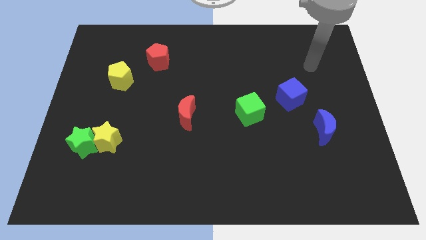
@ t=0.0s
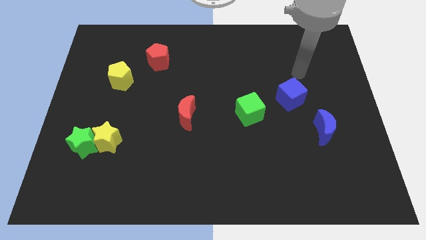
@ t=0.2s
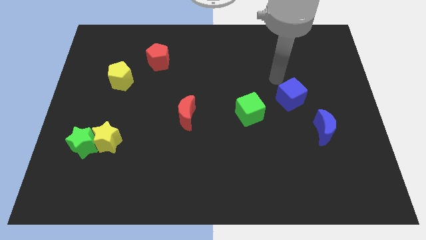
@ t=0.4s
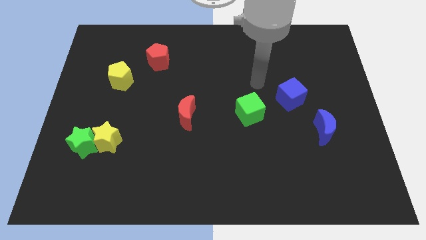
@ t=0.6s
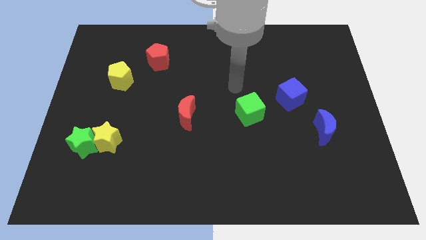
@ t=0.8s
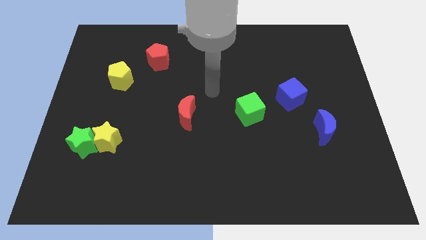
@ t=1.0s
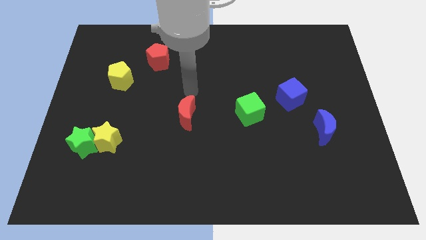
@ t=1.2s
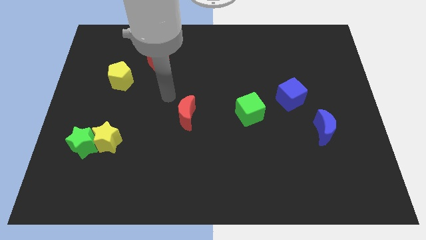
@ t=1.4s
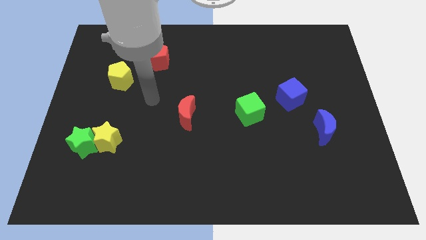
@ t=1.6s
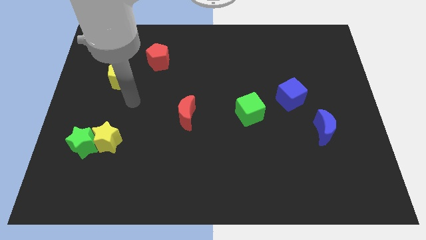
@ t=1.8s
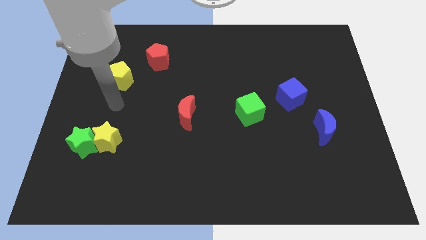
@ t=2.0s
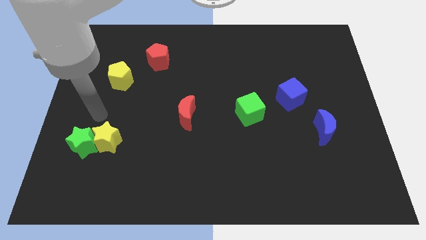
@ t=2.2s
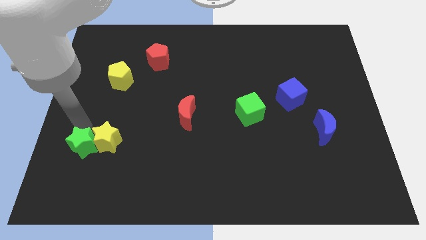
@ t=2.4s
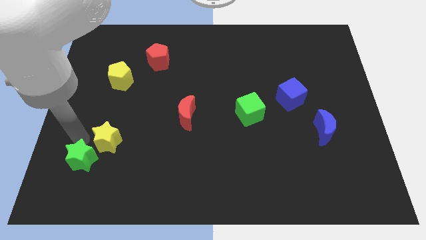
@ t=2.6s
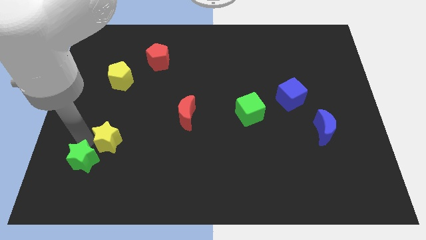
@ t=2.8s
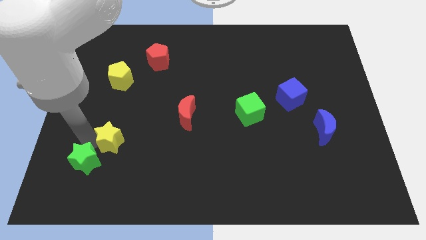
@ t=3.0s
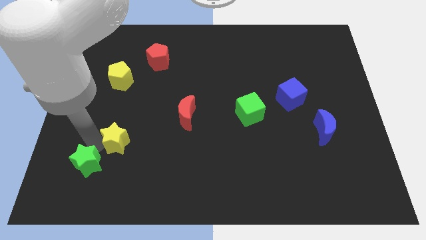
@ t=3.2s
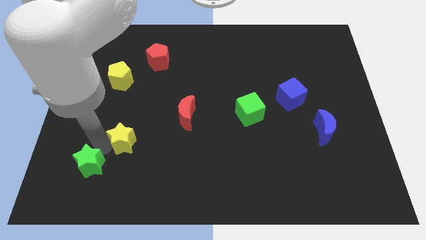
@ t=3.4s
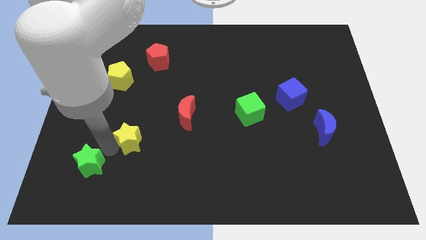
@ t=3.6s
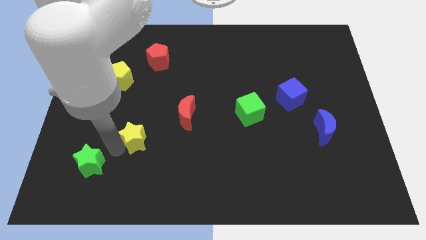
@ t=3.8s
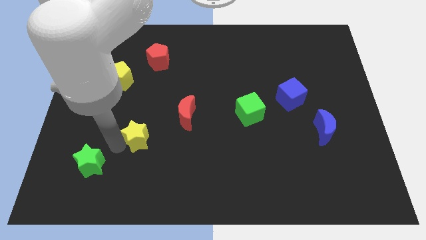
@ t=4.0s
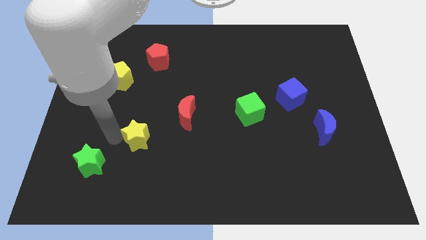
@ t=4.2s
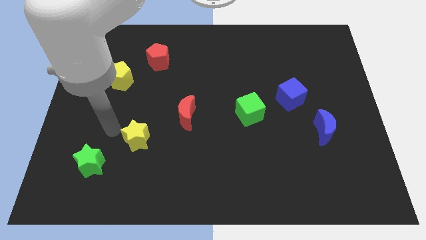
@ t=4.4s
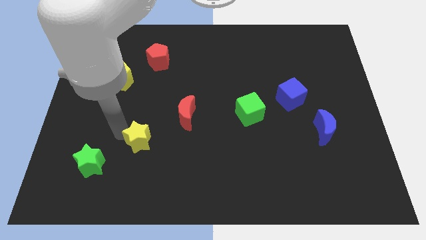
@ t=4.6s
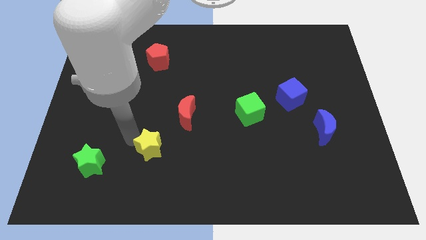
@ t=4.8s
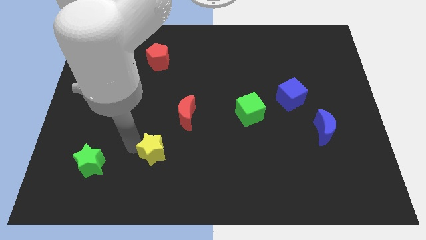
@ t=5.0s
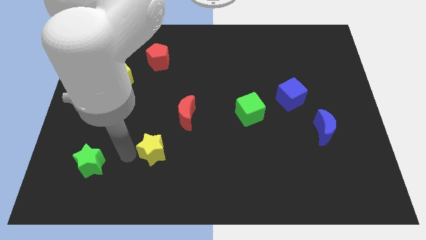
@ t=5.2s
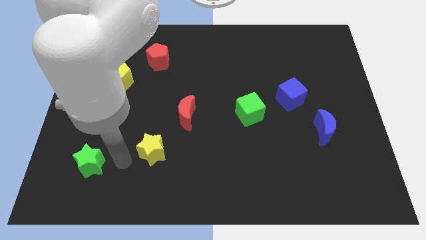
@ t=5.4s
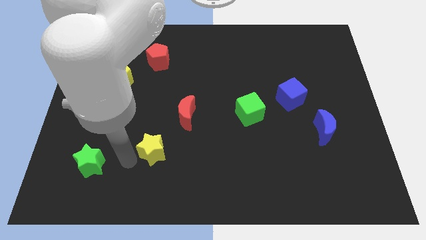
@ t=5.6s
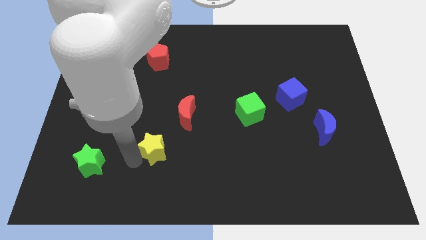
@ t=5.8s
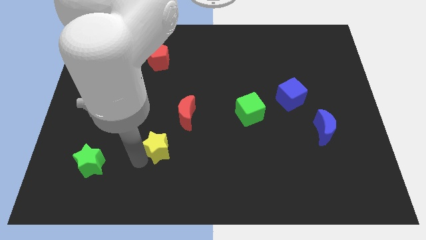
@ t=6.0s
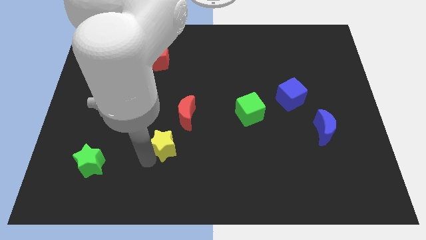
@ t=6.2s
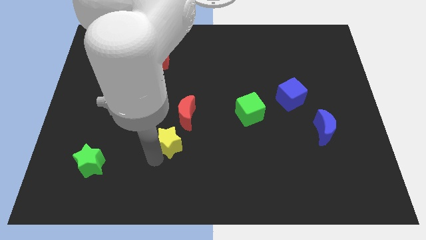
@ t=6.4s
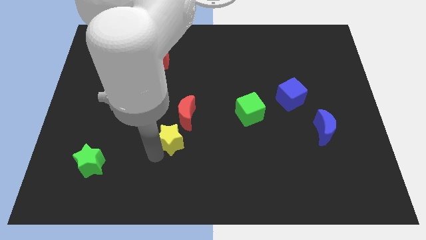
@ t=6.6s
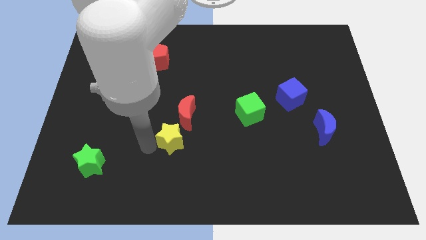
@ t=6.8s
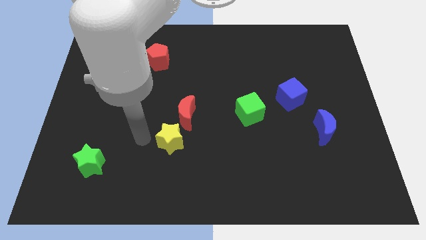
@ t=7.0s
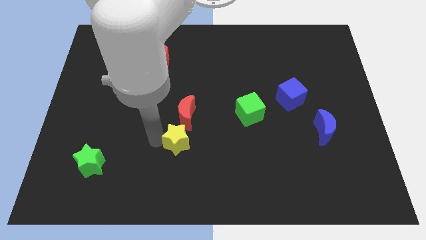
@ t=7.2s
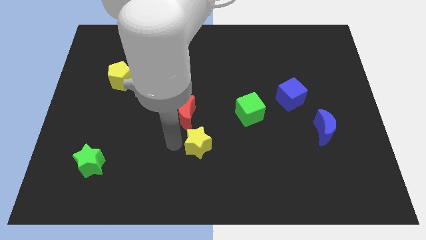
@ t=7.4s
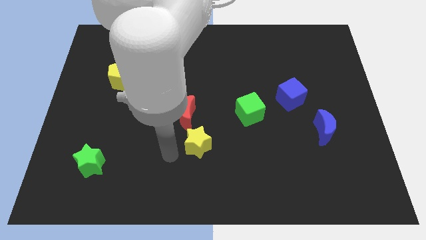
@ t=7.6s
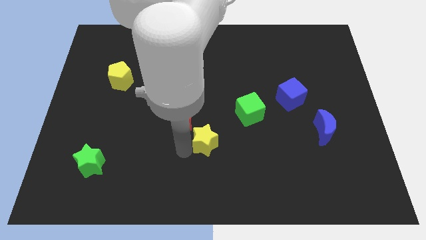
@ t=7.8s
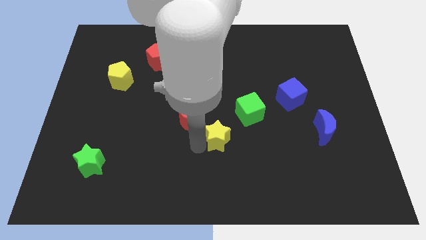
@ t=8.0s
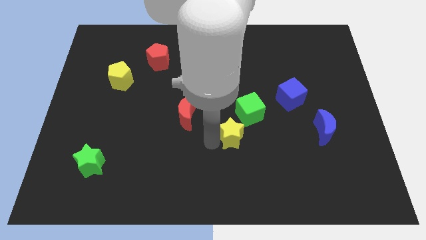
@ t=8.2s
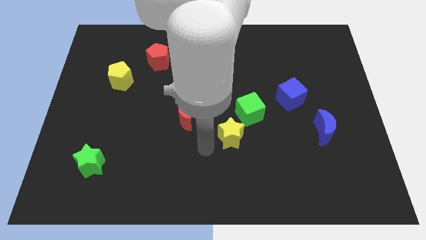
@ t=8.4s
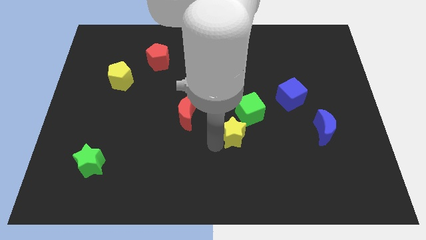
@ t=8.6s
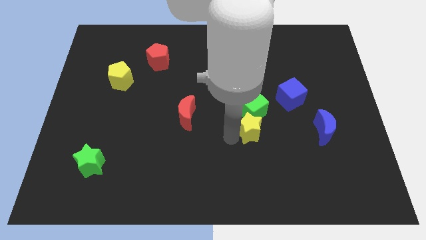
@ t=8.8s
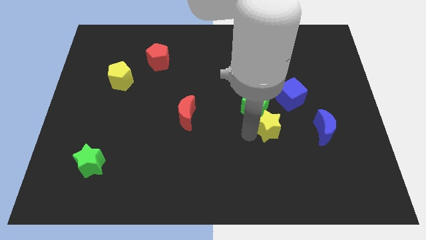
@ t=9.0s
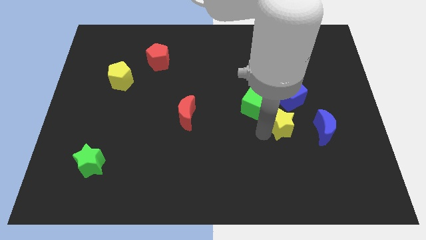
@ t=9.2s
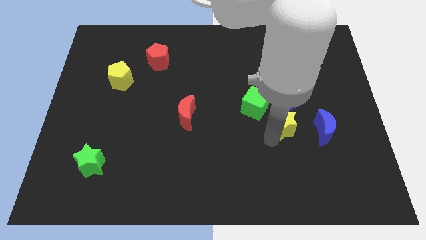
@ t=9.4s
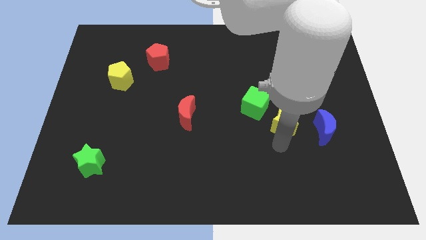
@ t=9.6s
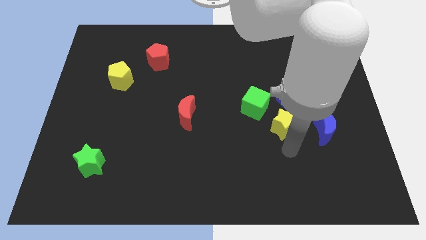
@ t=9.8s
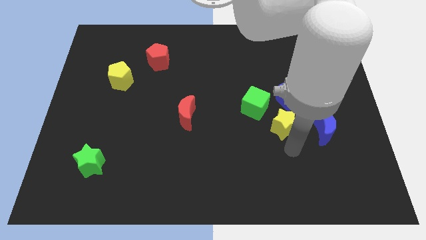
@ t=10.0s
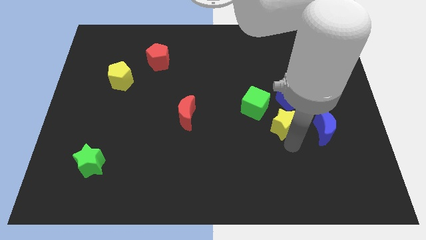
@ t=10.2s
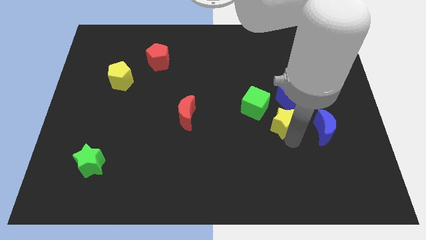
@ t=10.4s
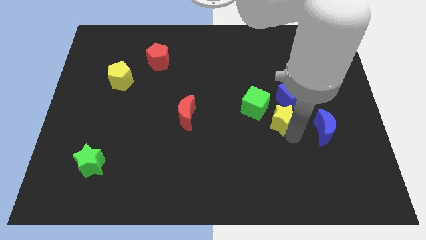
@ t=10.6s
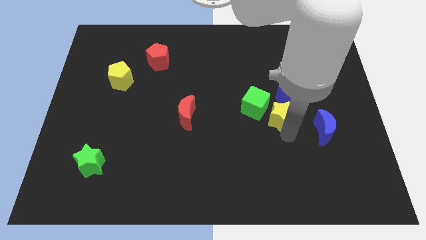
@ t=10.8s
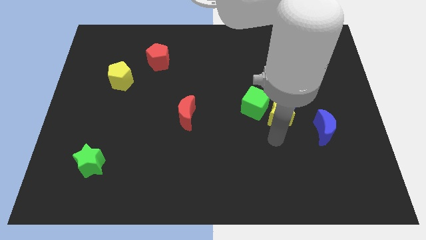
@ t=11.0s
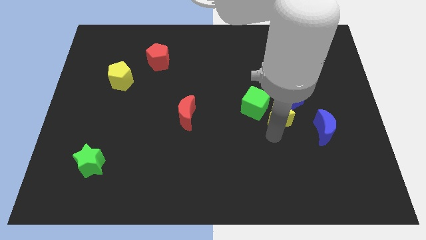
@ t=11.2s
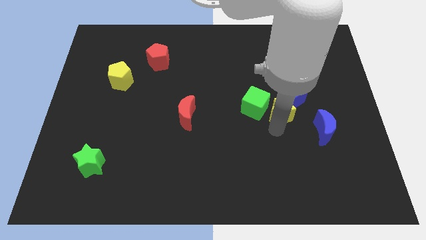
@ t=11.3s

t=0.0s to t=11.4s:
push the yellow star to the blue cube

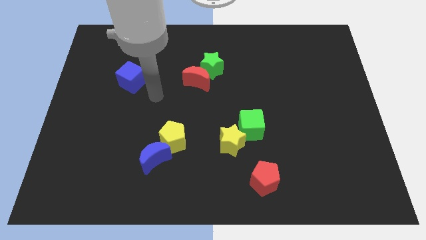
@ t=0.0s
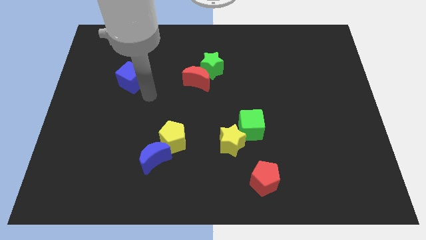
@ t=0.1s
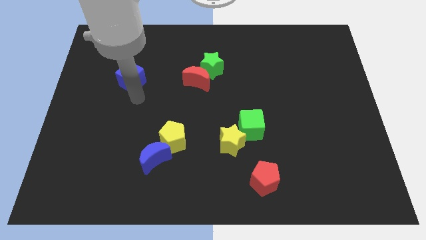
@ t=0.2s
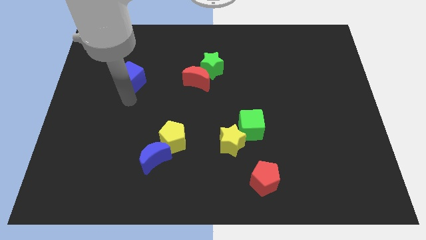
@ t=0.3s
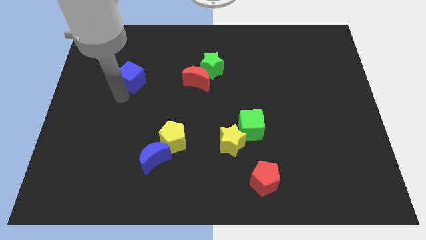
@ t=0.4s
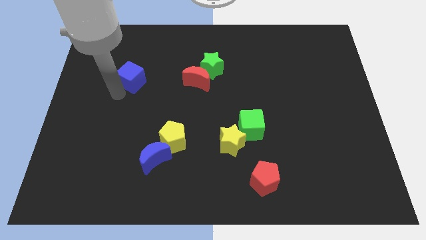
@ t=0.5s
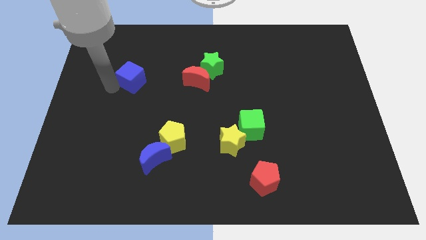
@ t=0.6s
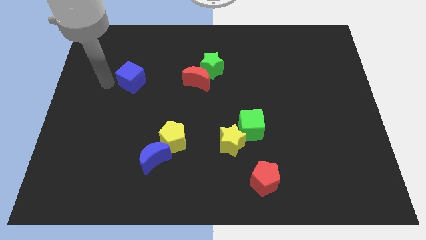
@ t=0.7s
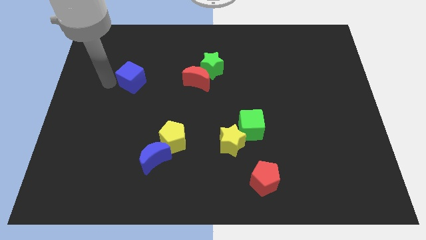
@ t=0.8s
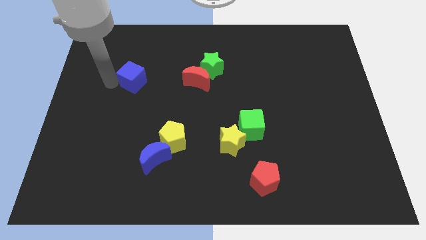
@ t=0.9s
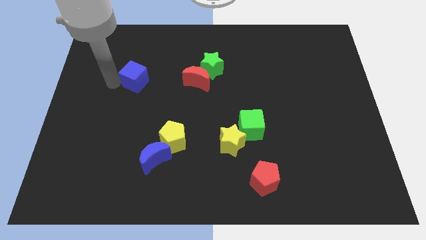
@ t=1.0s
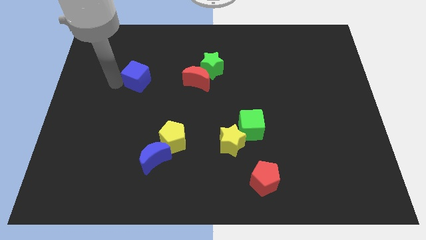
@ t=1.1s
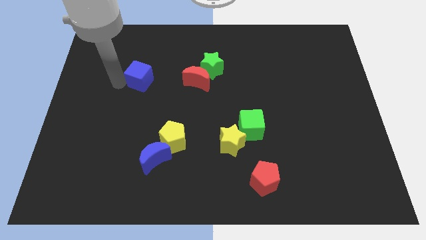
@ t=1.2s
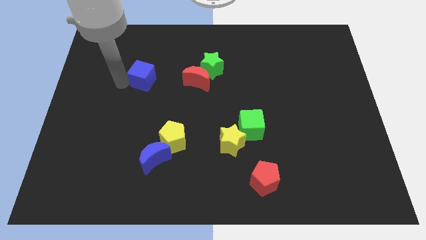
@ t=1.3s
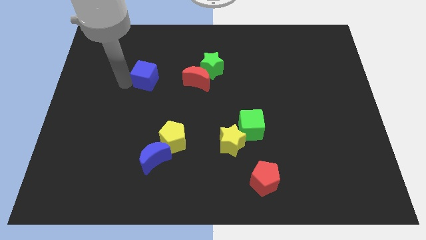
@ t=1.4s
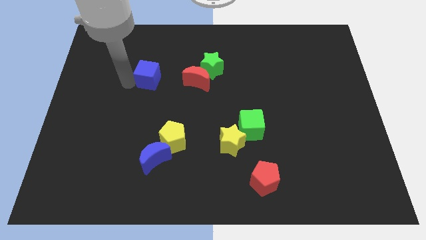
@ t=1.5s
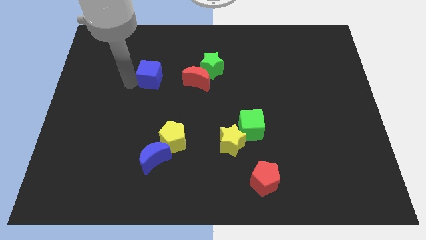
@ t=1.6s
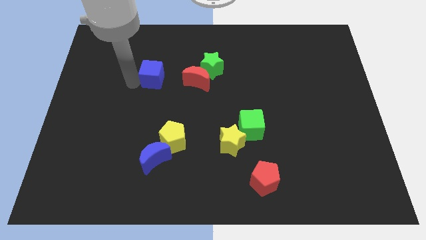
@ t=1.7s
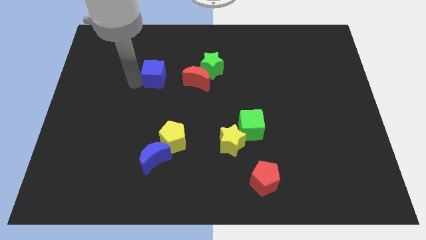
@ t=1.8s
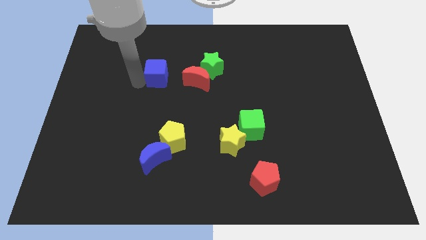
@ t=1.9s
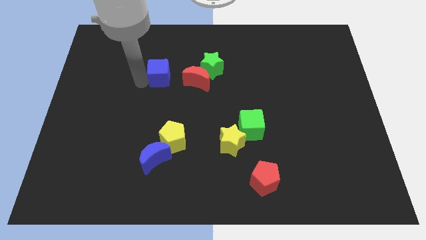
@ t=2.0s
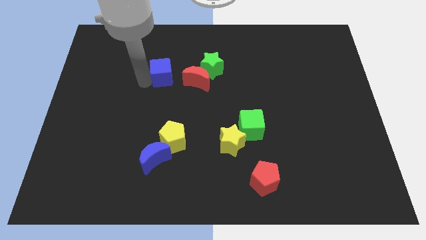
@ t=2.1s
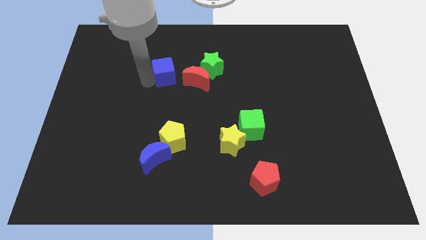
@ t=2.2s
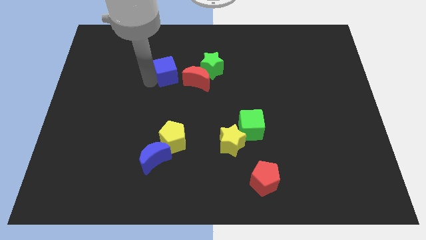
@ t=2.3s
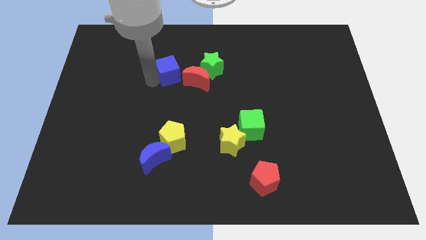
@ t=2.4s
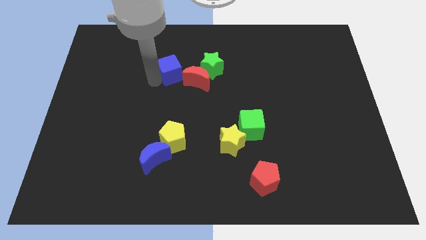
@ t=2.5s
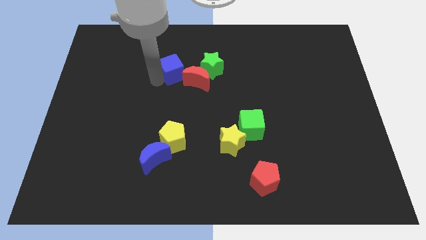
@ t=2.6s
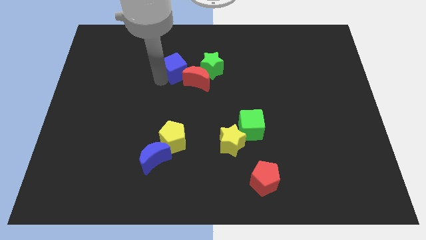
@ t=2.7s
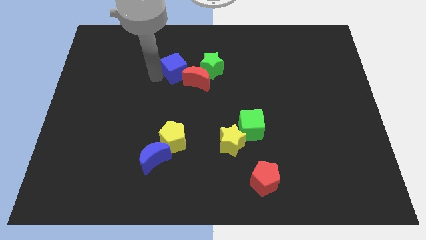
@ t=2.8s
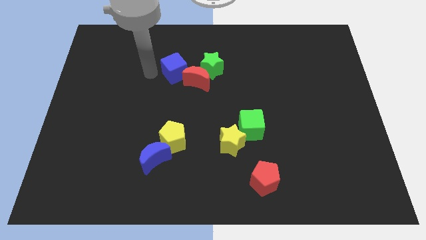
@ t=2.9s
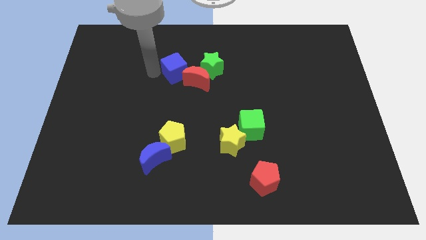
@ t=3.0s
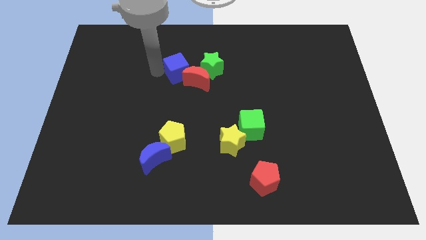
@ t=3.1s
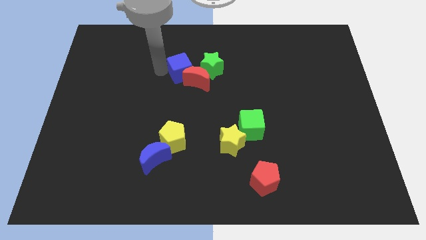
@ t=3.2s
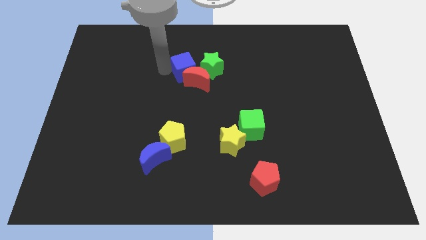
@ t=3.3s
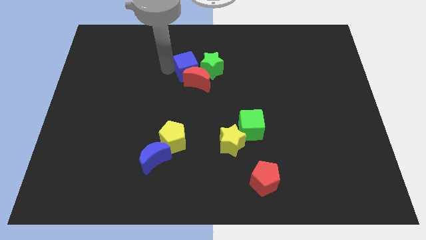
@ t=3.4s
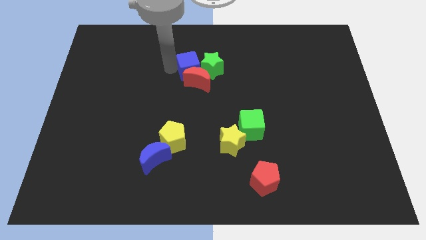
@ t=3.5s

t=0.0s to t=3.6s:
move the blue cube close to the green star
